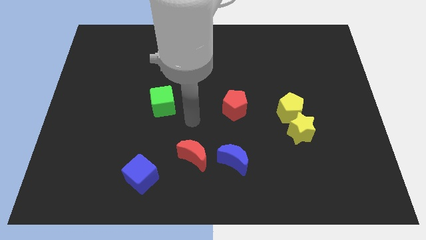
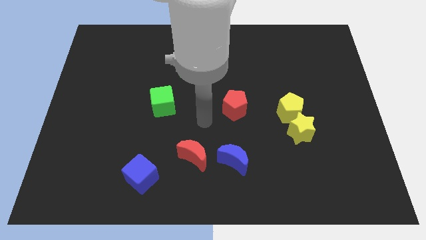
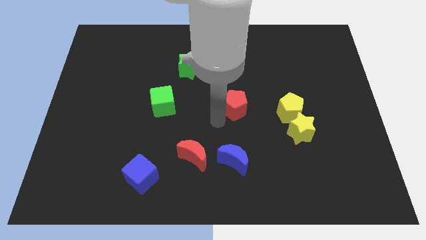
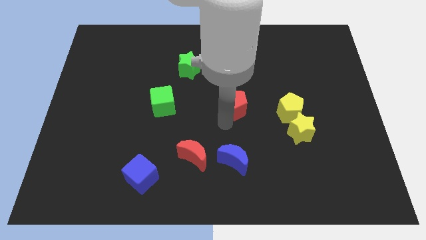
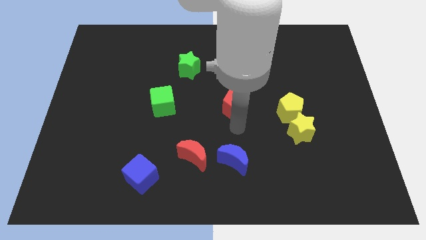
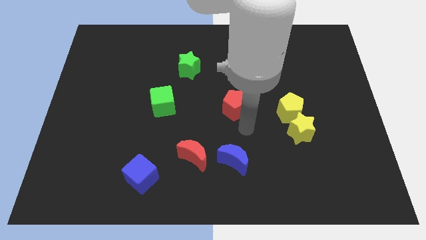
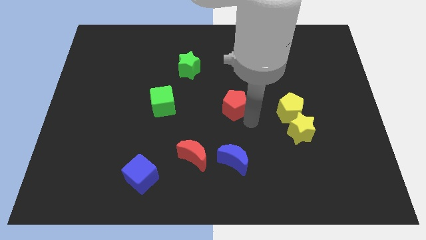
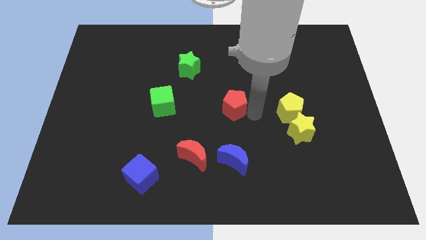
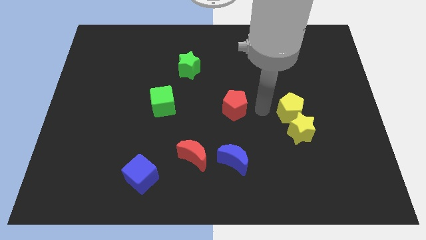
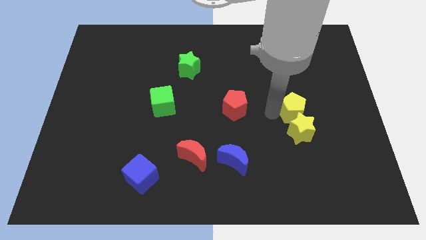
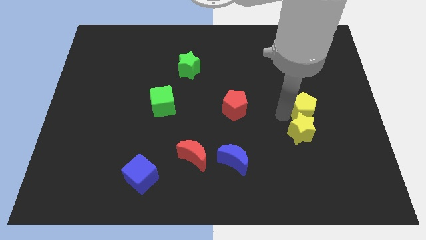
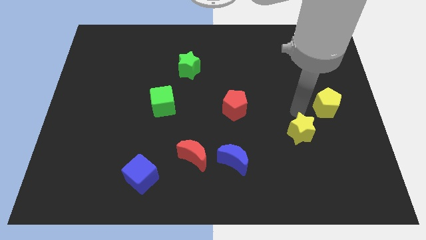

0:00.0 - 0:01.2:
move the yellow star away from the yellow pentagon

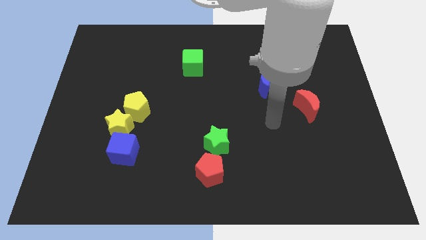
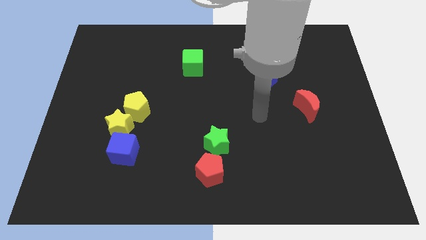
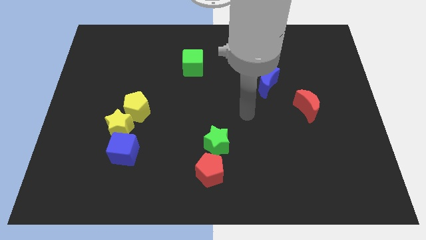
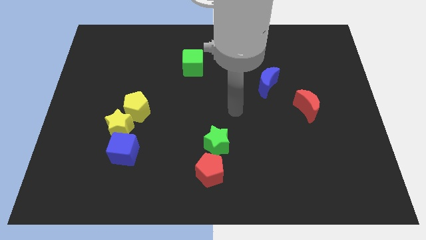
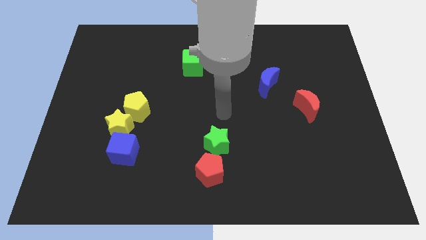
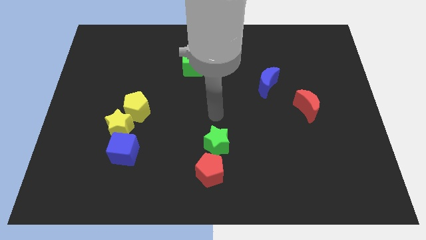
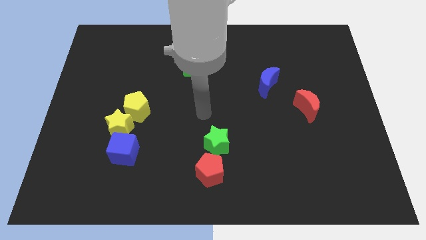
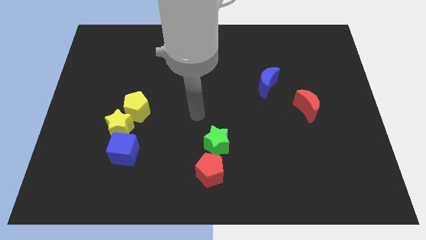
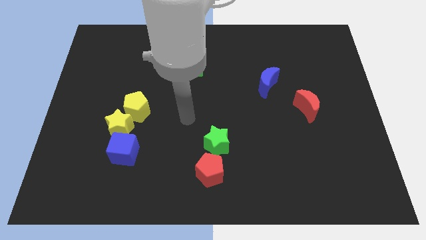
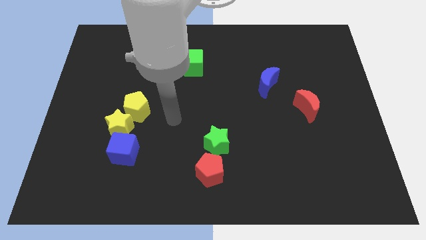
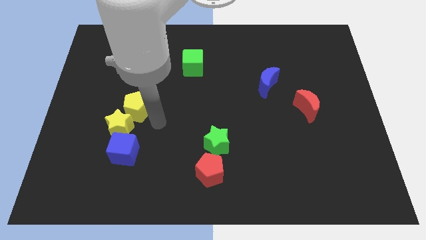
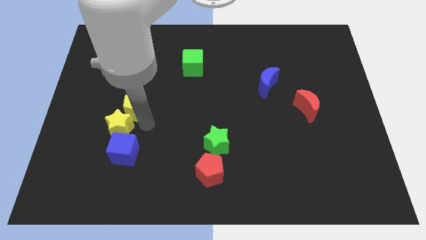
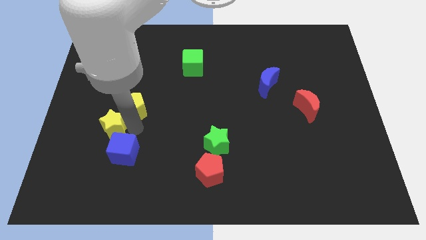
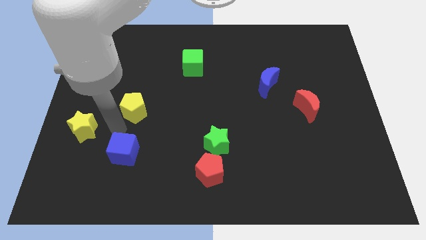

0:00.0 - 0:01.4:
pull the yellow pentagon apart from the yellow star

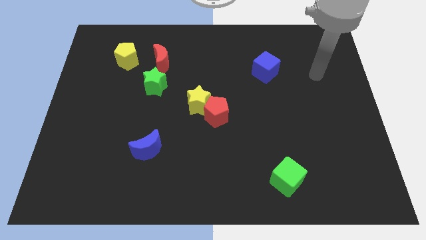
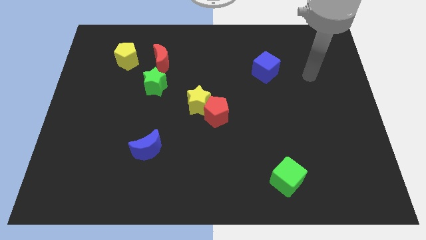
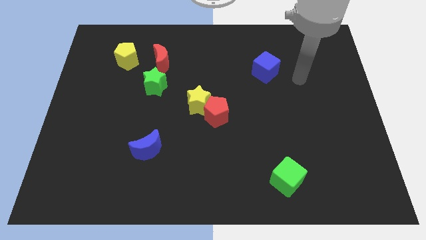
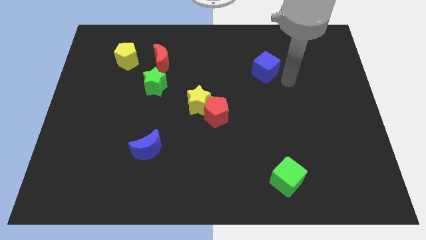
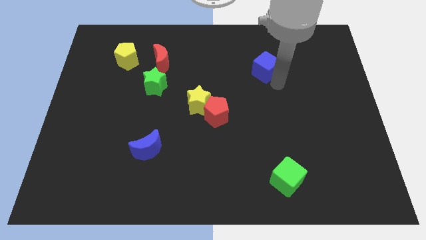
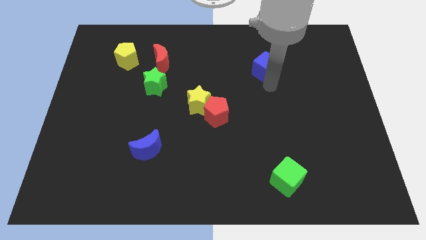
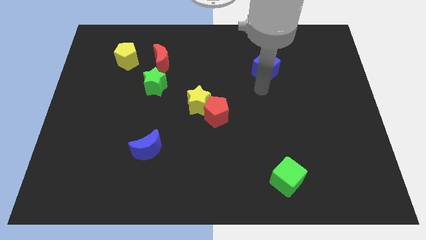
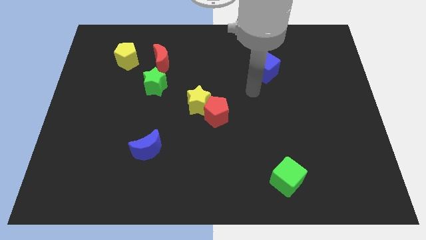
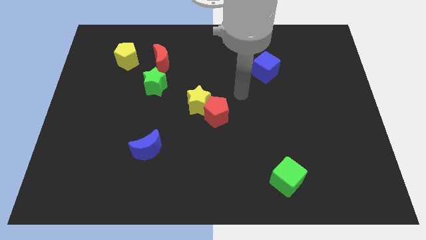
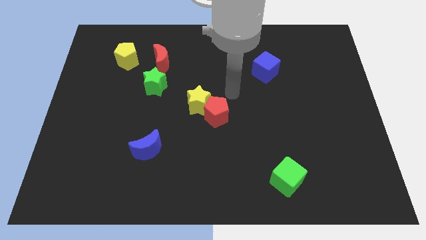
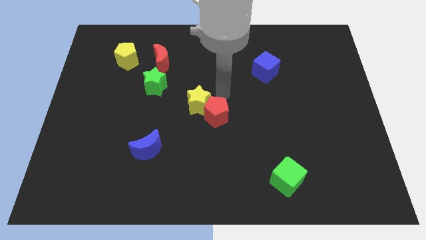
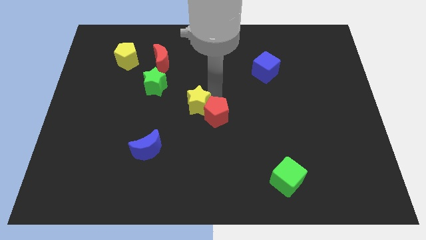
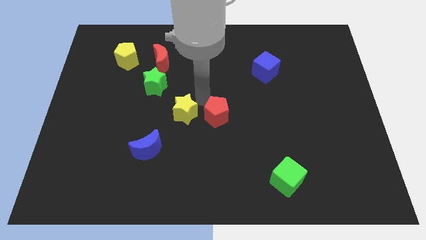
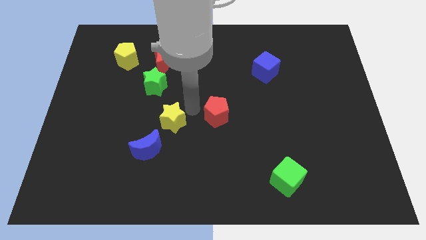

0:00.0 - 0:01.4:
move the red pentagon away from the yellow star

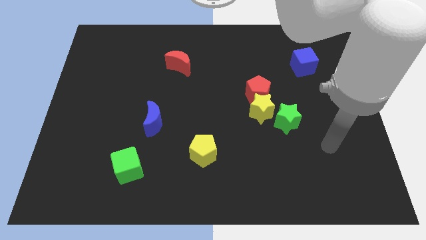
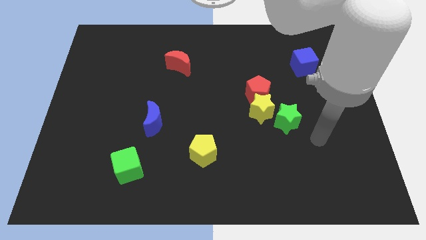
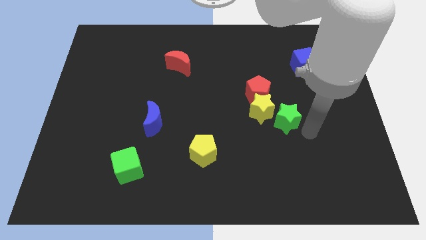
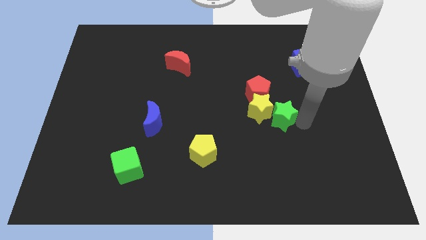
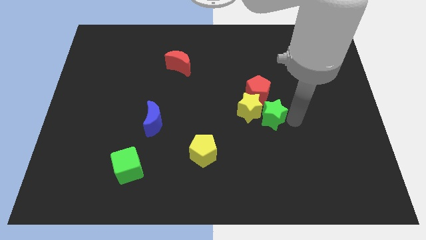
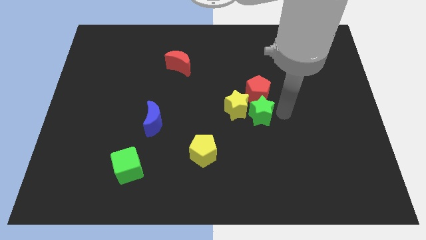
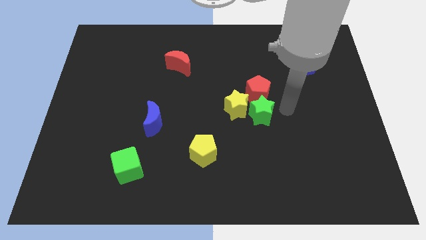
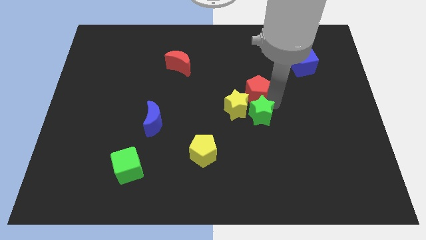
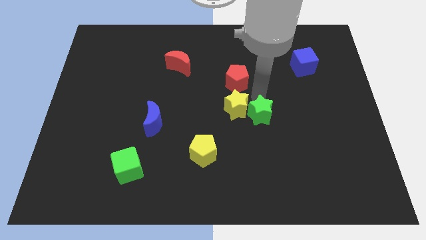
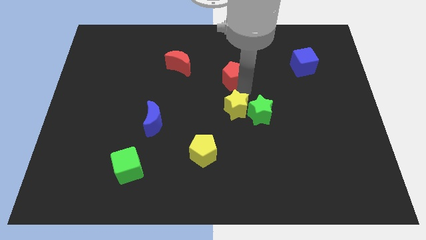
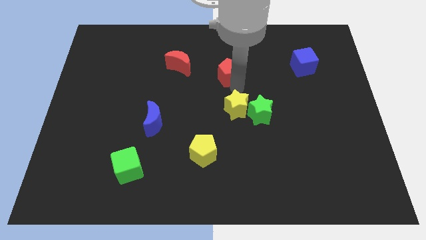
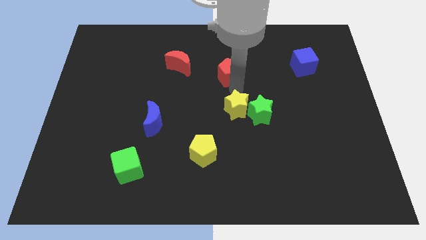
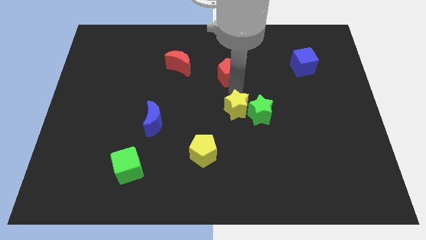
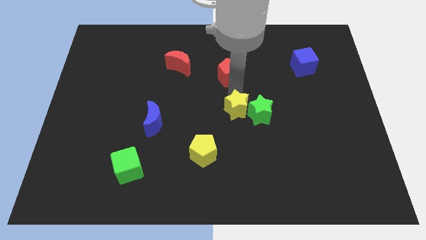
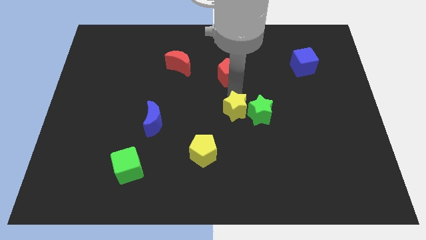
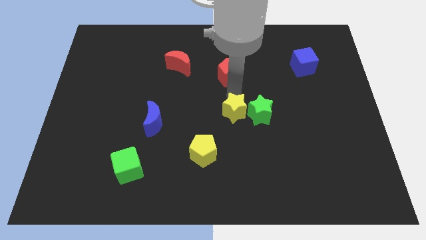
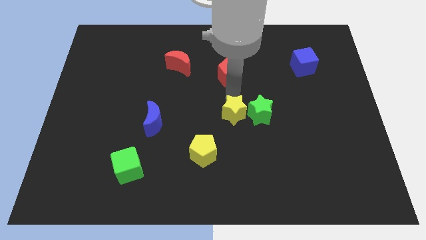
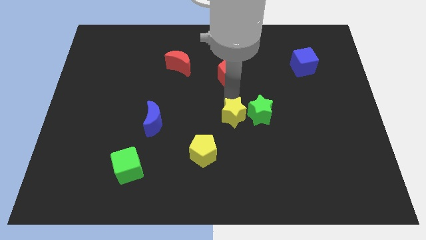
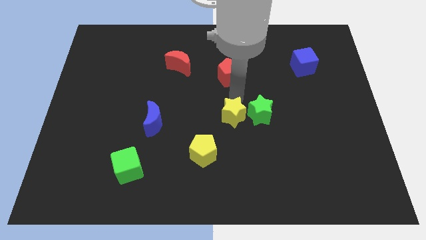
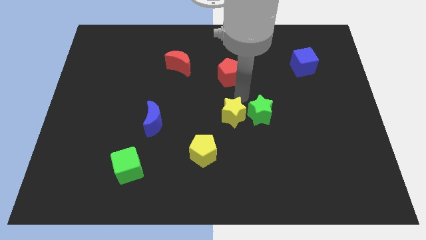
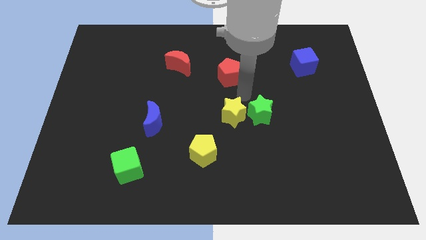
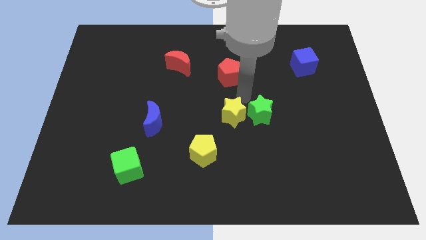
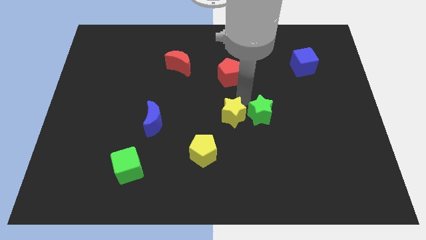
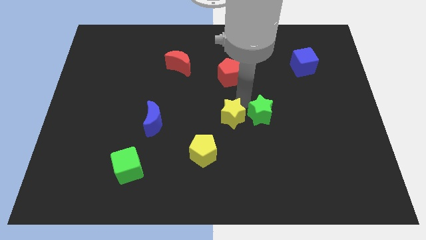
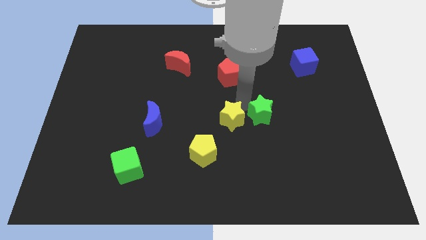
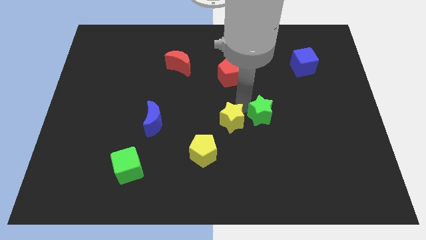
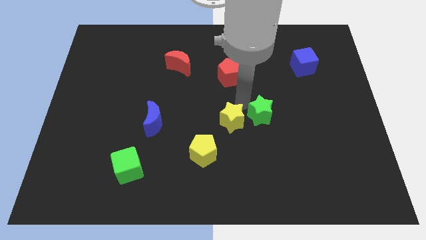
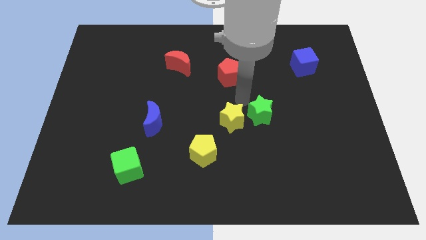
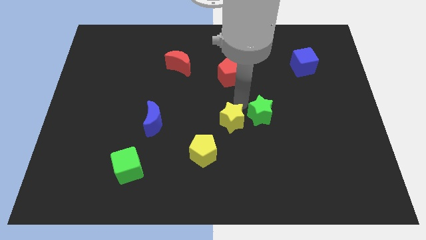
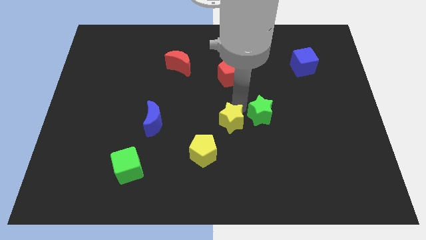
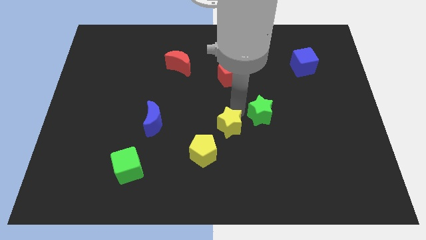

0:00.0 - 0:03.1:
move the yellow star away from the red pentagon and green star

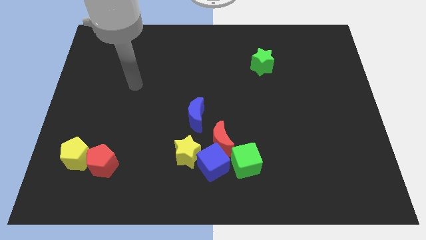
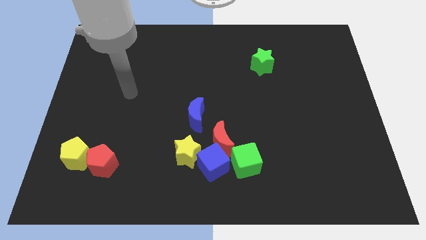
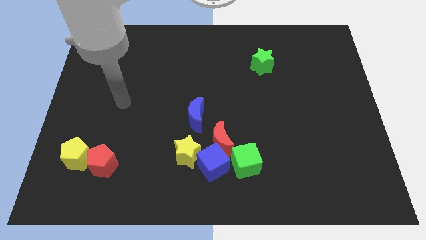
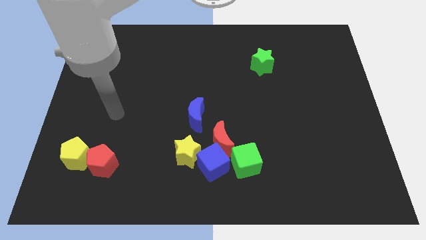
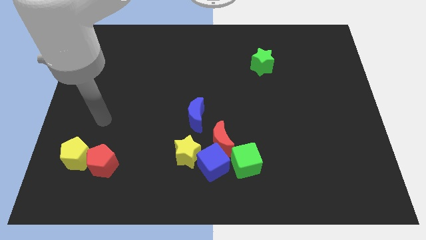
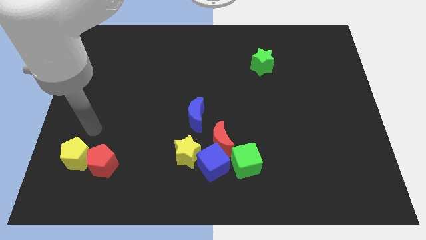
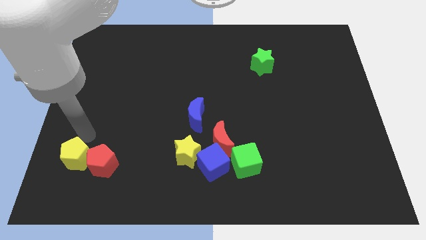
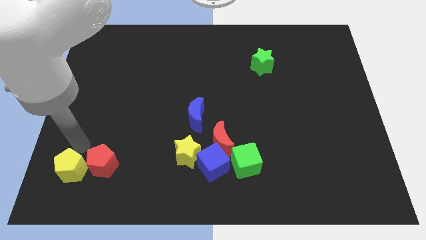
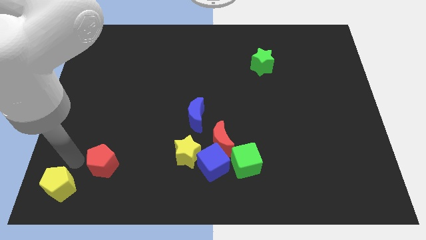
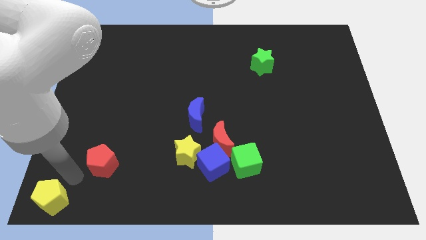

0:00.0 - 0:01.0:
pull the red pentagon apart from the yellow pentagon

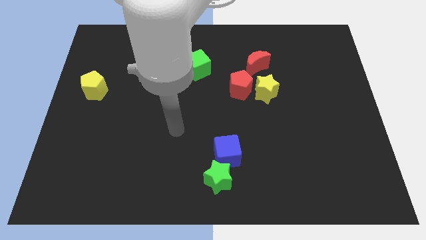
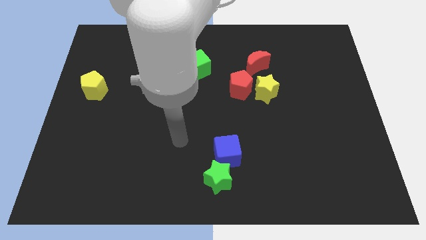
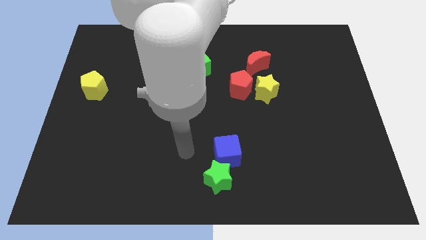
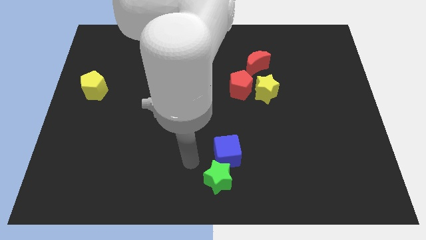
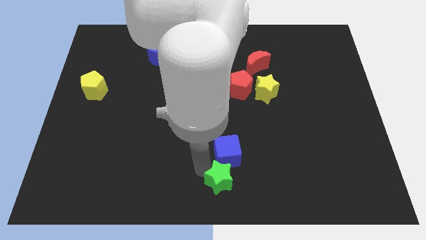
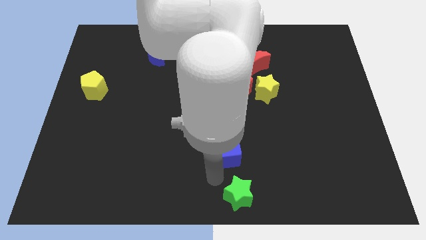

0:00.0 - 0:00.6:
separate the blue cube from the green star

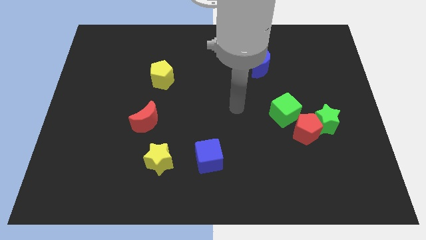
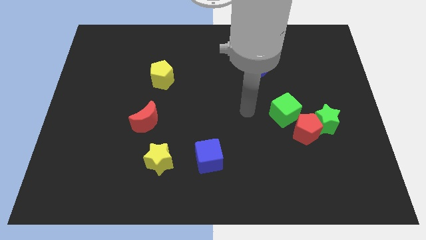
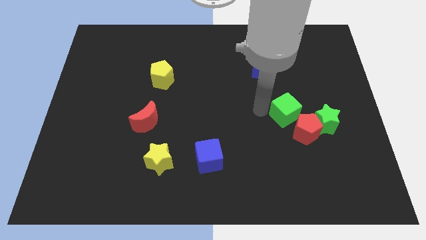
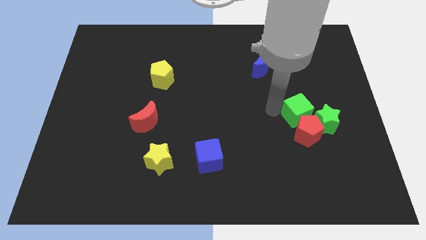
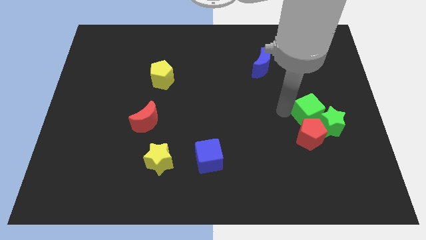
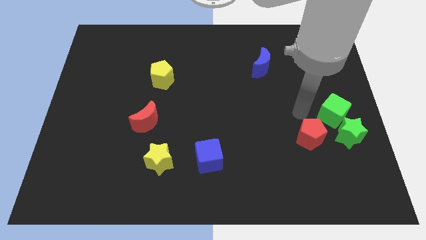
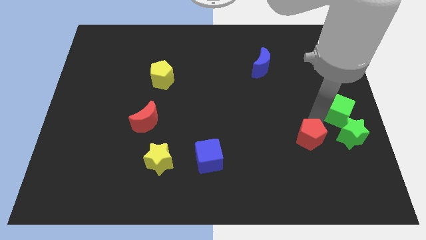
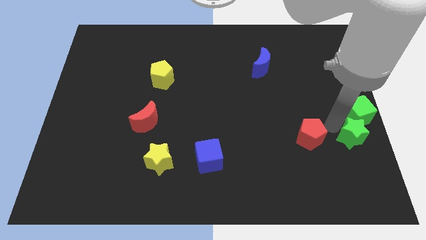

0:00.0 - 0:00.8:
move the red pentagon away from the green star and green cube
